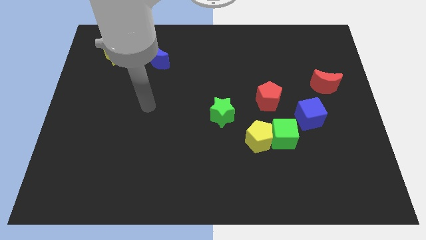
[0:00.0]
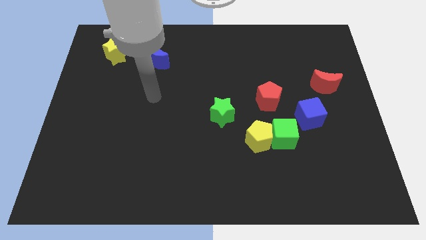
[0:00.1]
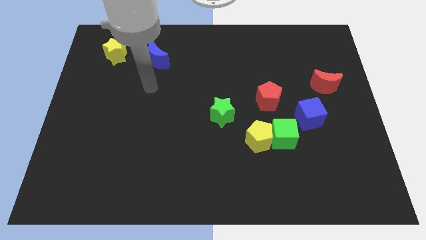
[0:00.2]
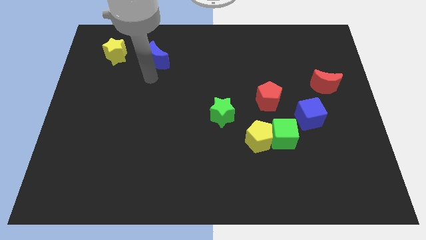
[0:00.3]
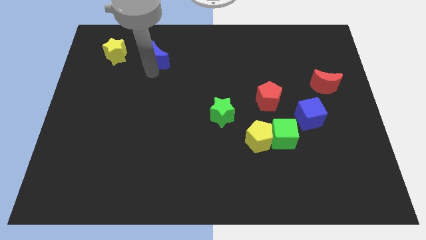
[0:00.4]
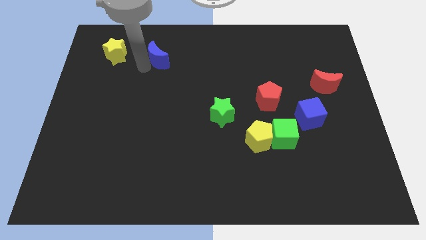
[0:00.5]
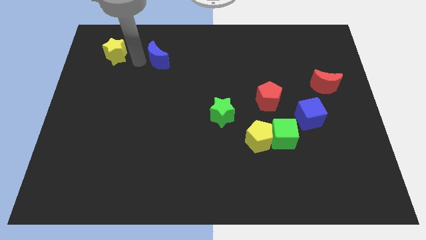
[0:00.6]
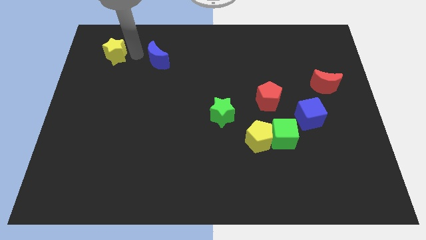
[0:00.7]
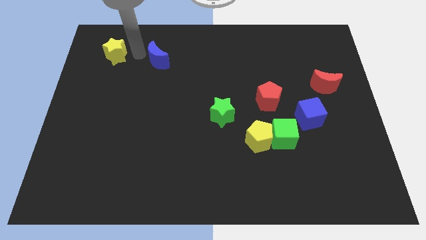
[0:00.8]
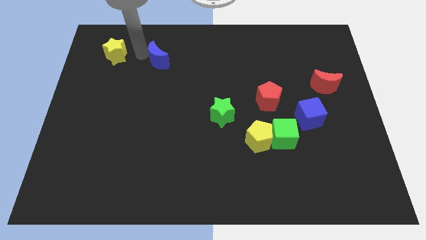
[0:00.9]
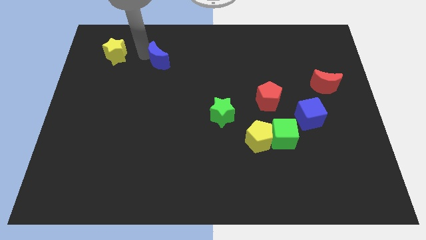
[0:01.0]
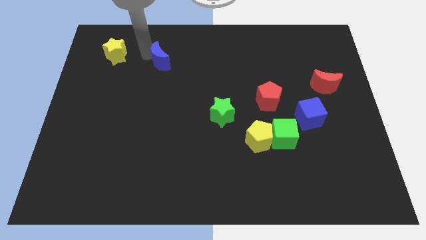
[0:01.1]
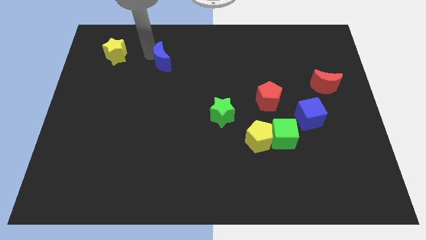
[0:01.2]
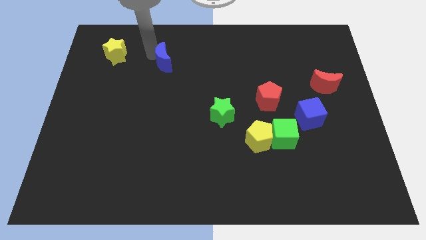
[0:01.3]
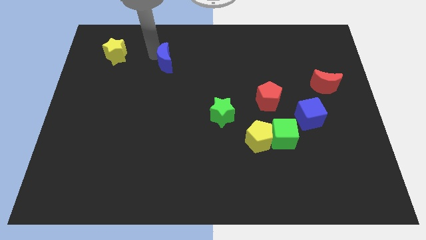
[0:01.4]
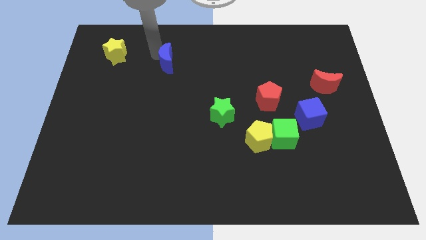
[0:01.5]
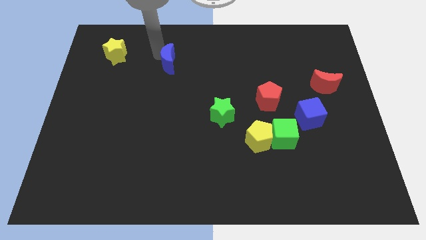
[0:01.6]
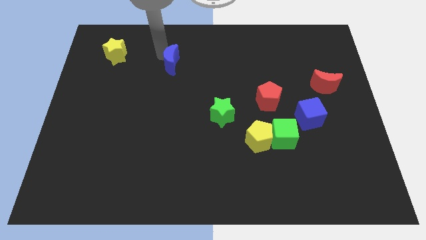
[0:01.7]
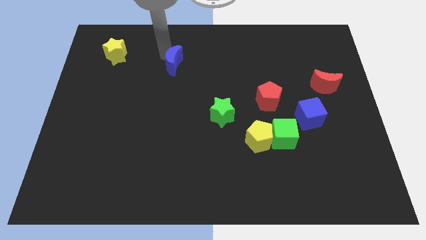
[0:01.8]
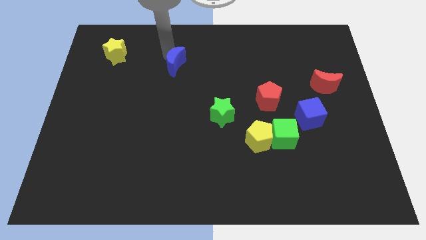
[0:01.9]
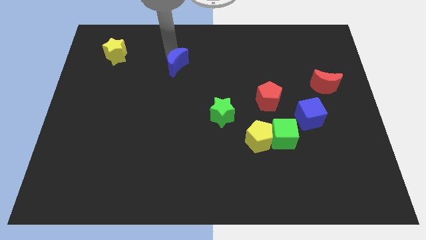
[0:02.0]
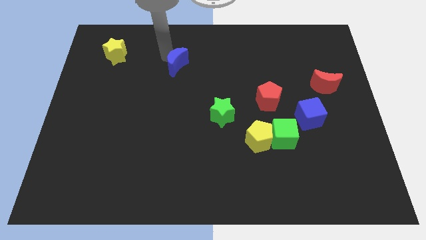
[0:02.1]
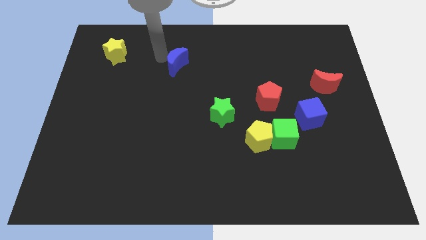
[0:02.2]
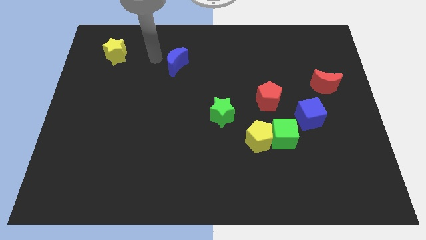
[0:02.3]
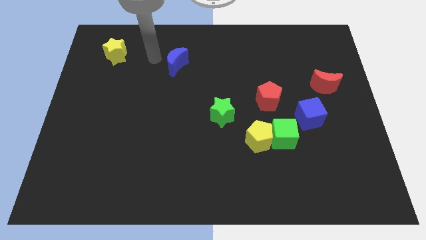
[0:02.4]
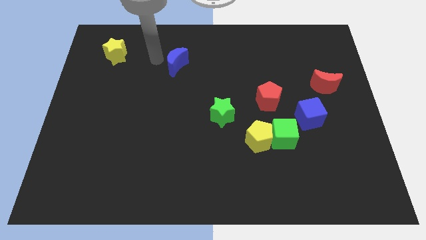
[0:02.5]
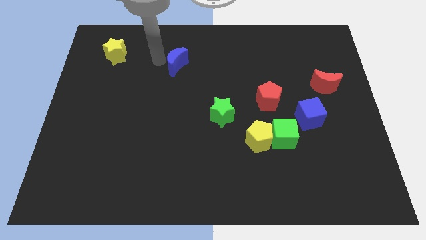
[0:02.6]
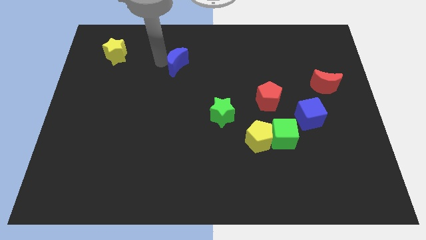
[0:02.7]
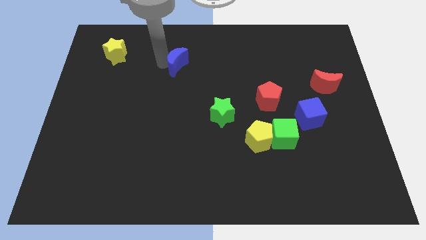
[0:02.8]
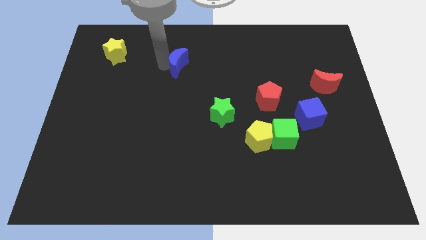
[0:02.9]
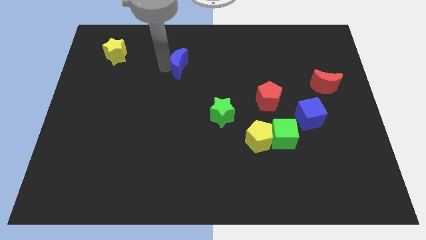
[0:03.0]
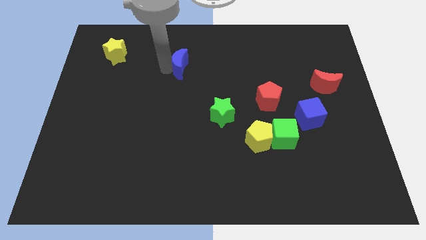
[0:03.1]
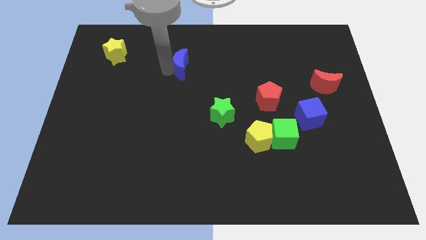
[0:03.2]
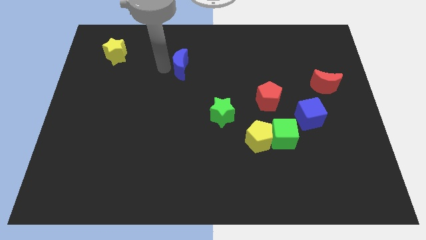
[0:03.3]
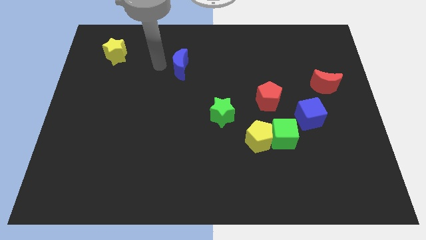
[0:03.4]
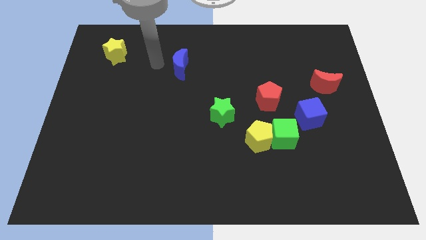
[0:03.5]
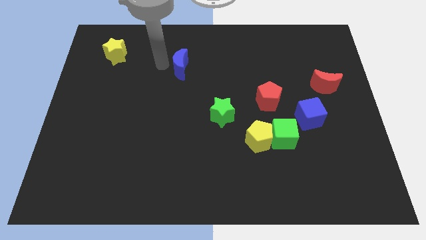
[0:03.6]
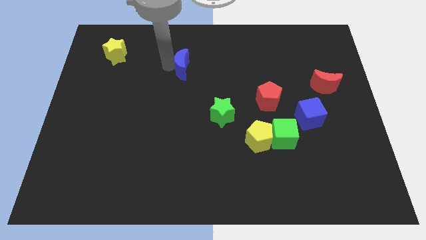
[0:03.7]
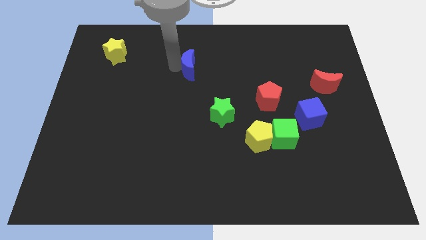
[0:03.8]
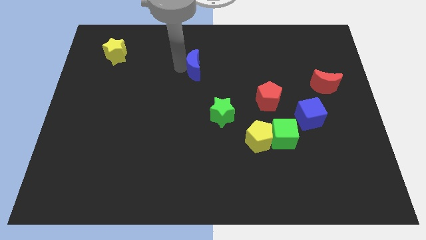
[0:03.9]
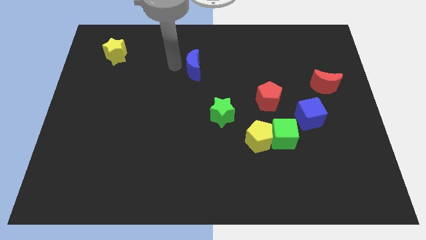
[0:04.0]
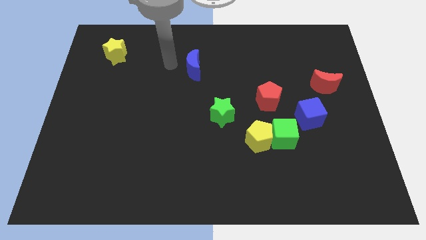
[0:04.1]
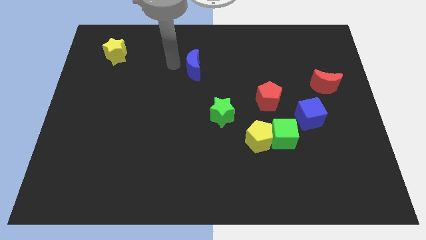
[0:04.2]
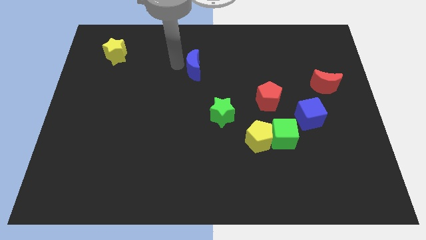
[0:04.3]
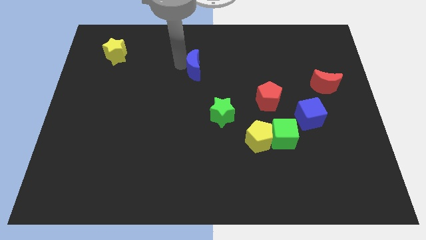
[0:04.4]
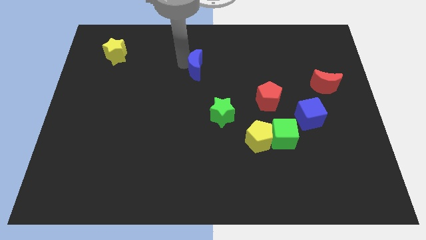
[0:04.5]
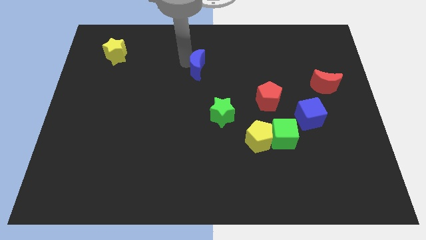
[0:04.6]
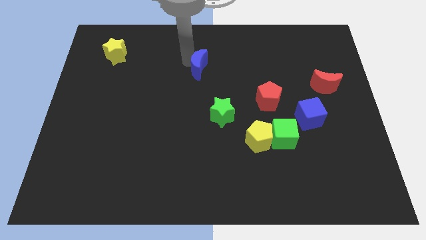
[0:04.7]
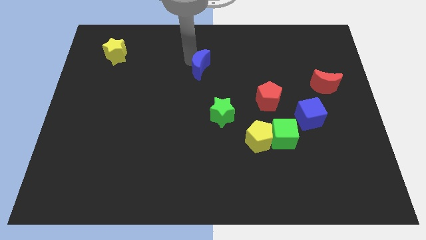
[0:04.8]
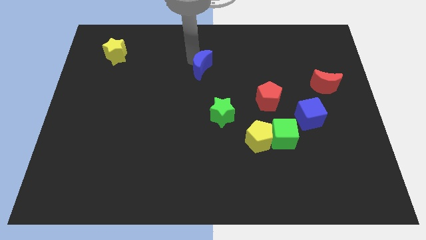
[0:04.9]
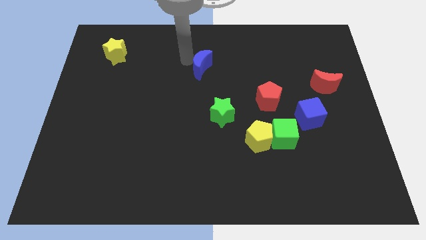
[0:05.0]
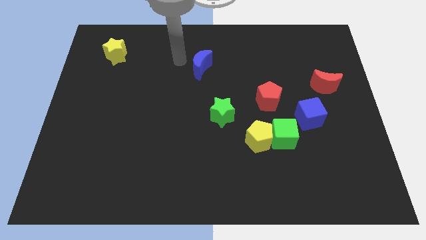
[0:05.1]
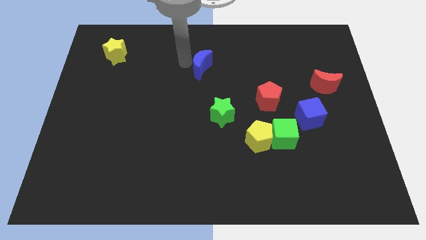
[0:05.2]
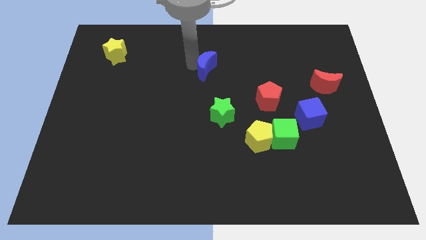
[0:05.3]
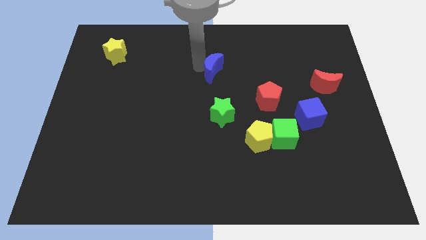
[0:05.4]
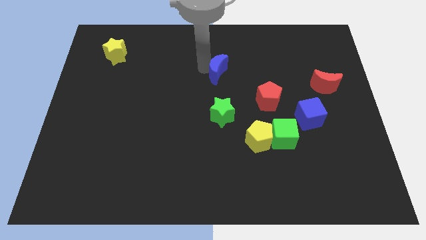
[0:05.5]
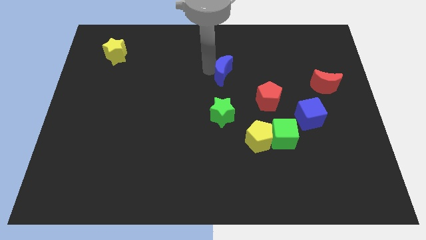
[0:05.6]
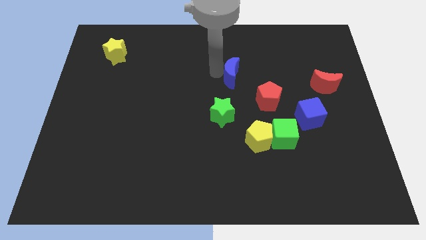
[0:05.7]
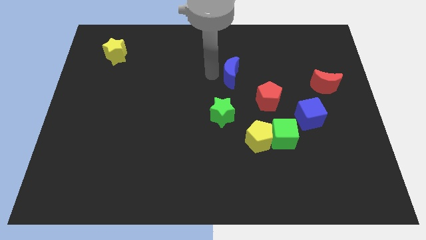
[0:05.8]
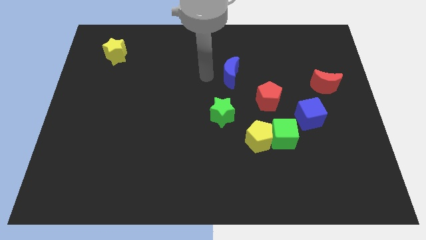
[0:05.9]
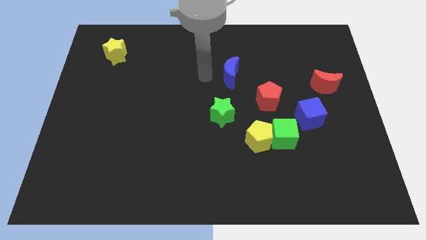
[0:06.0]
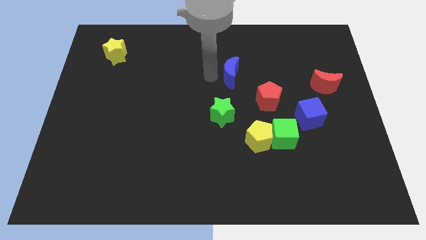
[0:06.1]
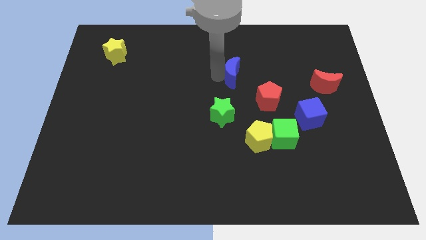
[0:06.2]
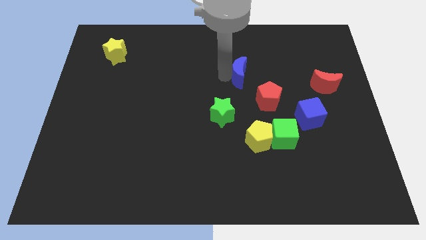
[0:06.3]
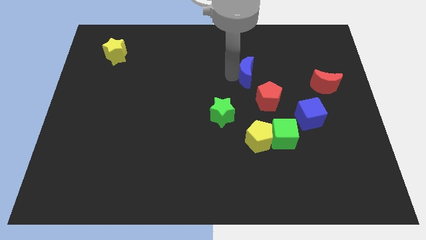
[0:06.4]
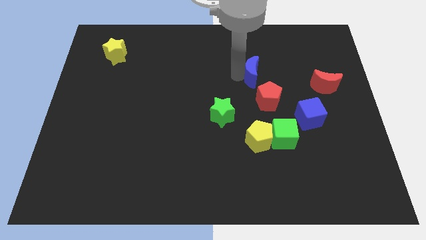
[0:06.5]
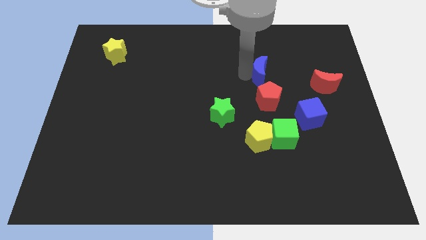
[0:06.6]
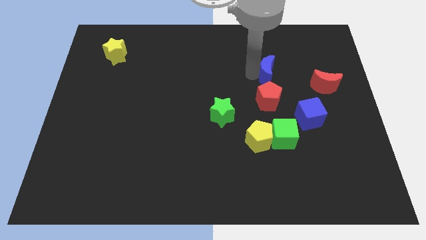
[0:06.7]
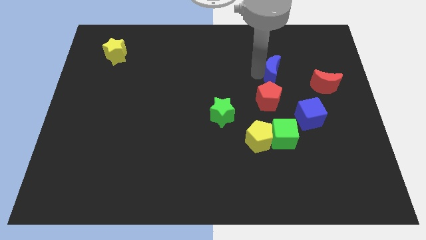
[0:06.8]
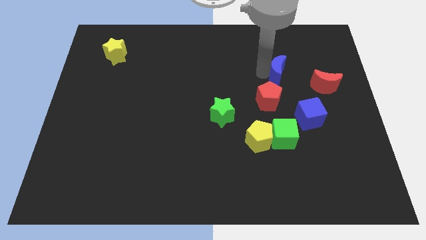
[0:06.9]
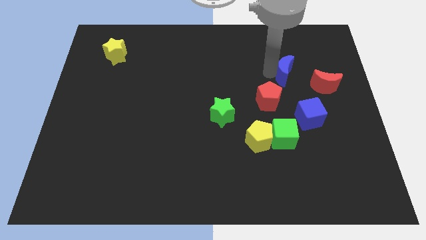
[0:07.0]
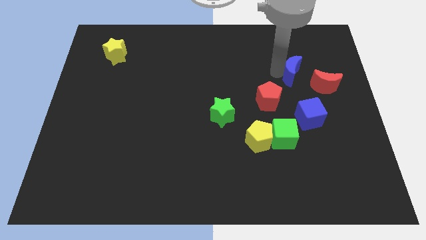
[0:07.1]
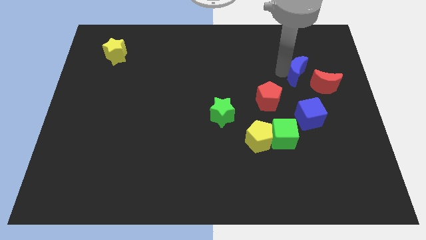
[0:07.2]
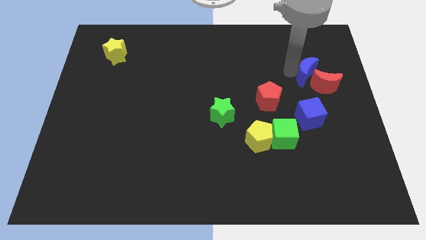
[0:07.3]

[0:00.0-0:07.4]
slide the blue moon close to the red moon
